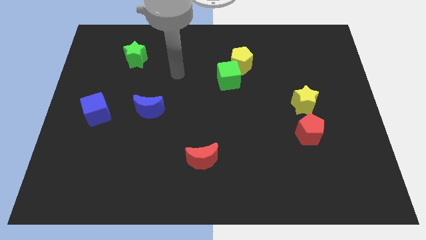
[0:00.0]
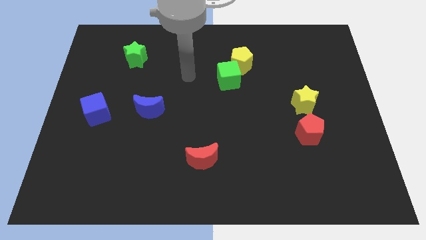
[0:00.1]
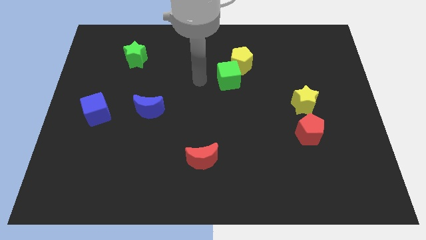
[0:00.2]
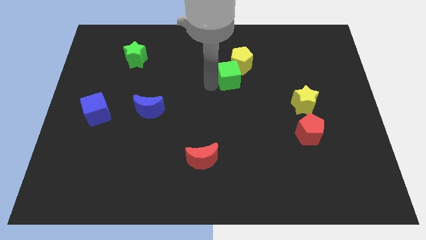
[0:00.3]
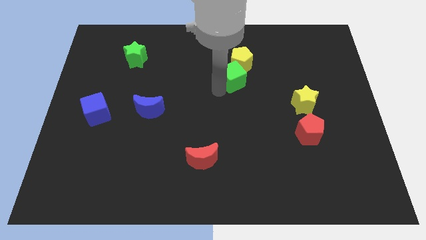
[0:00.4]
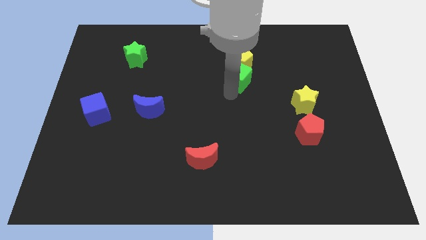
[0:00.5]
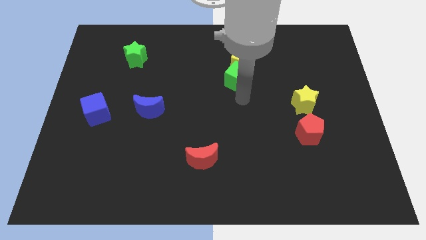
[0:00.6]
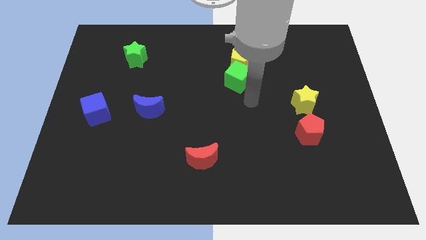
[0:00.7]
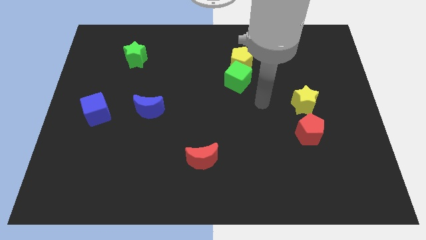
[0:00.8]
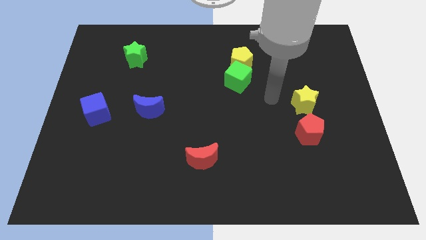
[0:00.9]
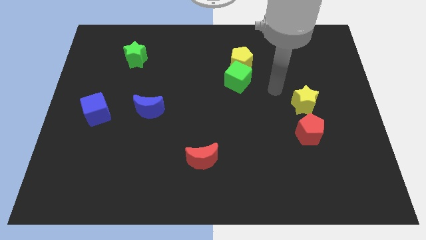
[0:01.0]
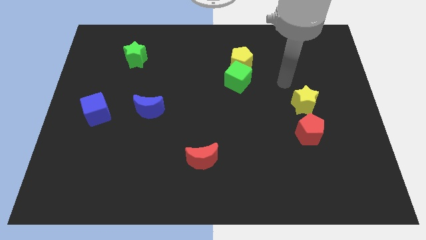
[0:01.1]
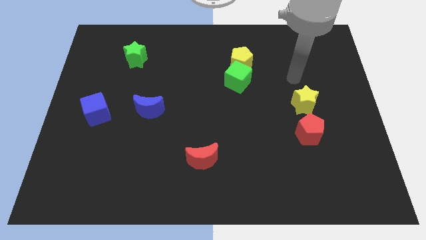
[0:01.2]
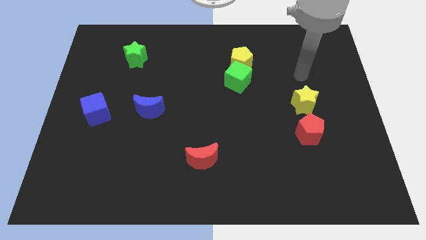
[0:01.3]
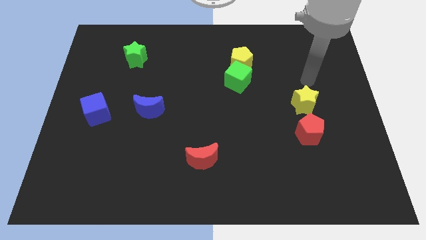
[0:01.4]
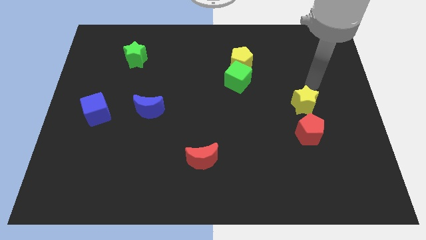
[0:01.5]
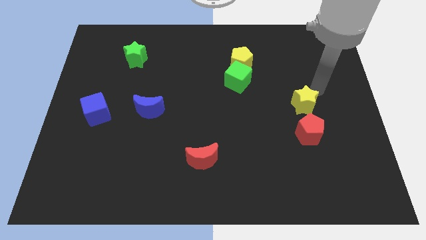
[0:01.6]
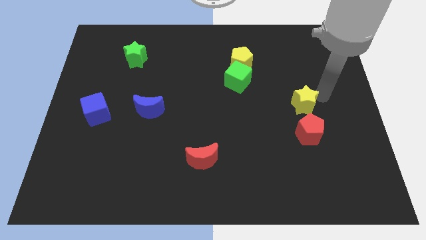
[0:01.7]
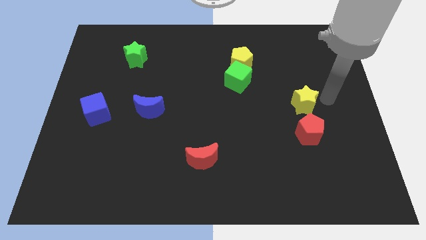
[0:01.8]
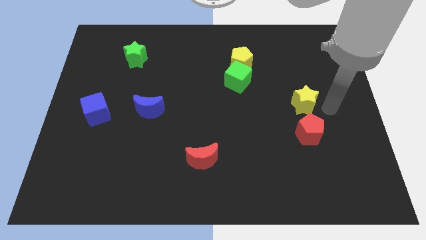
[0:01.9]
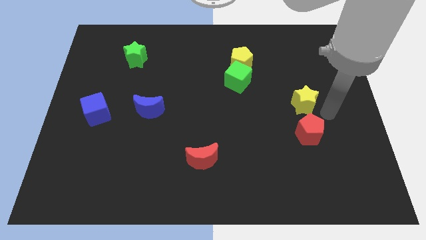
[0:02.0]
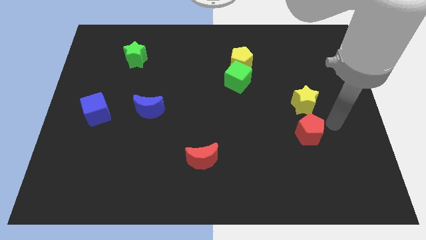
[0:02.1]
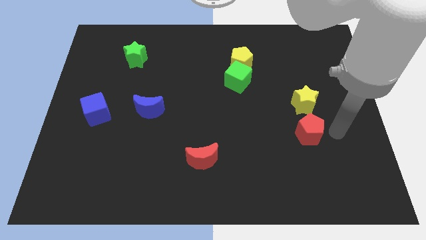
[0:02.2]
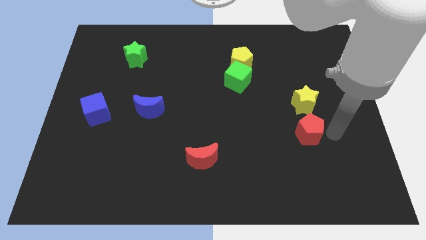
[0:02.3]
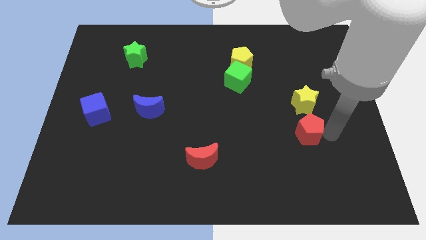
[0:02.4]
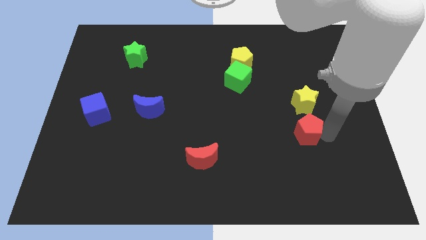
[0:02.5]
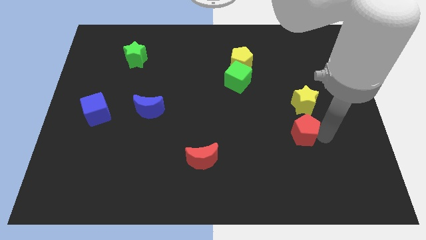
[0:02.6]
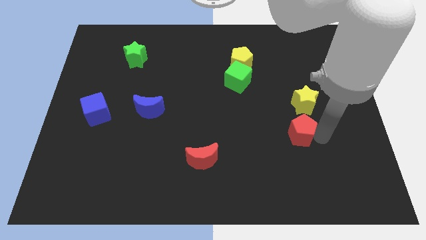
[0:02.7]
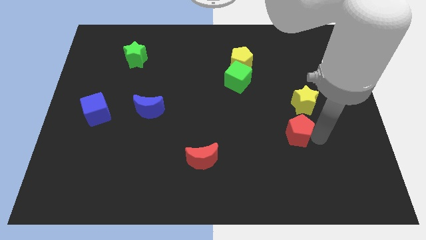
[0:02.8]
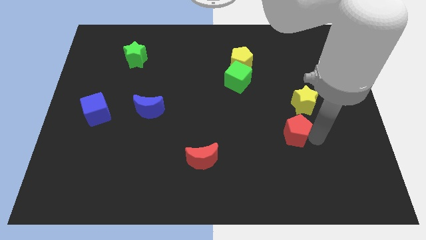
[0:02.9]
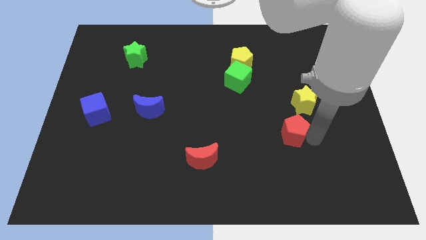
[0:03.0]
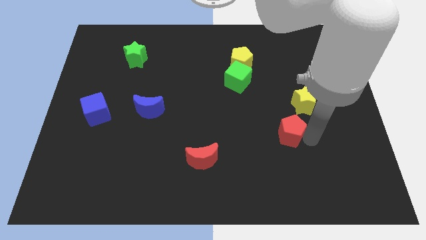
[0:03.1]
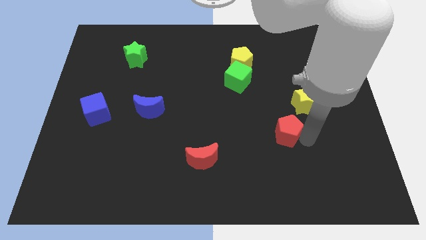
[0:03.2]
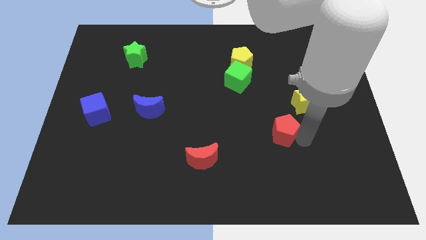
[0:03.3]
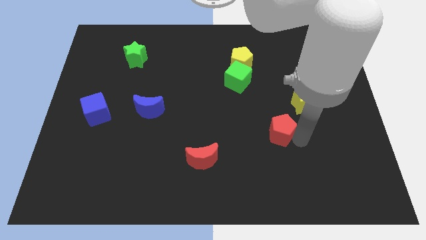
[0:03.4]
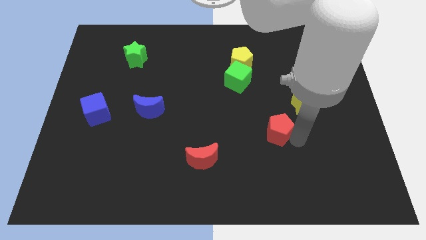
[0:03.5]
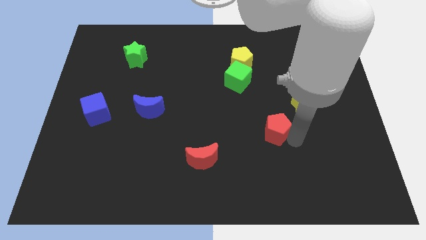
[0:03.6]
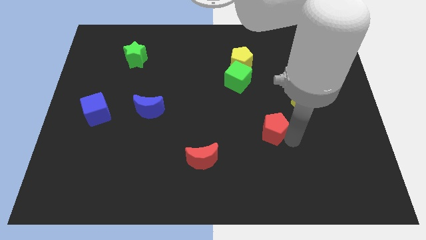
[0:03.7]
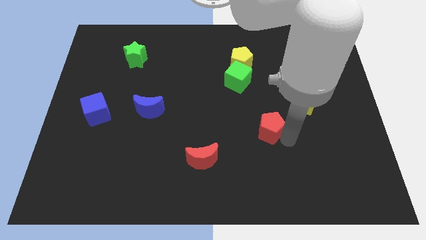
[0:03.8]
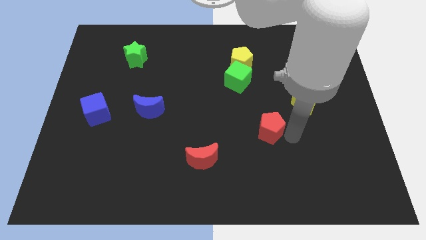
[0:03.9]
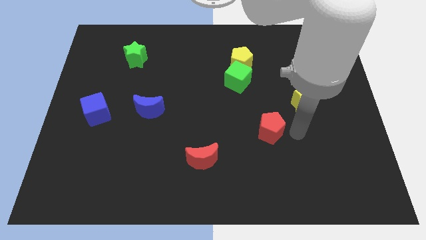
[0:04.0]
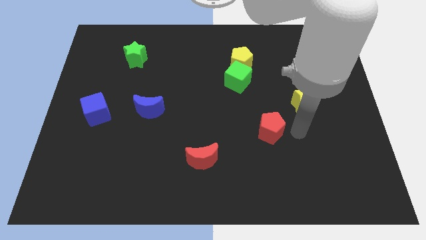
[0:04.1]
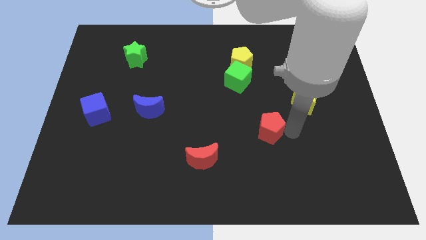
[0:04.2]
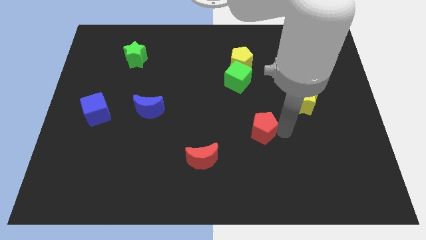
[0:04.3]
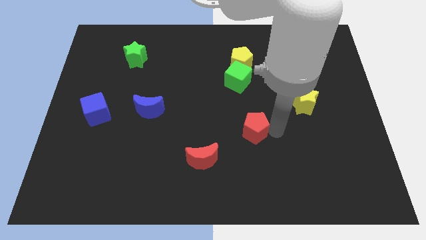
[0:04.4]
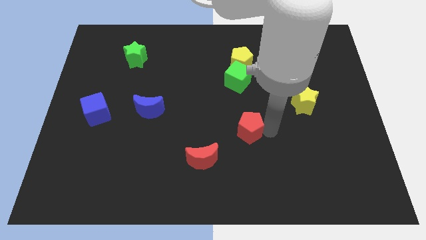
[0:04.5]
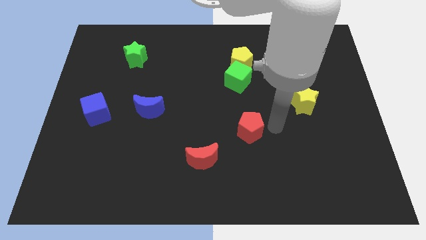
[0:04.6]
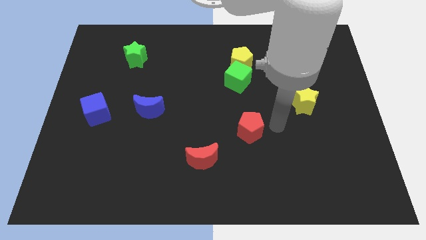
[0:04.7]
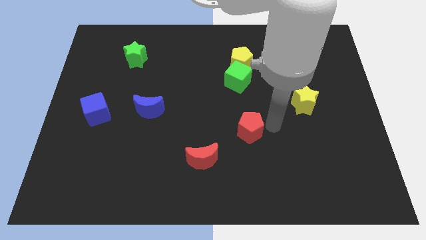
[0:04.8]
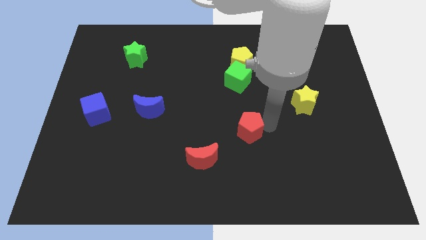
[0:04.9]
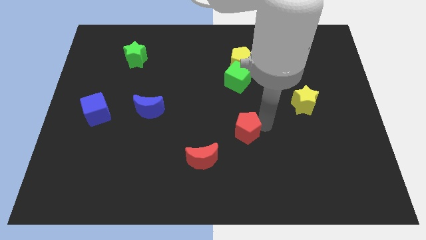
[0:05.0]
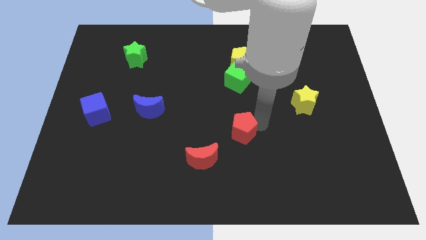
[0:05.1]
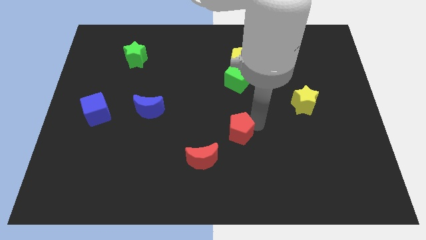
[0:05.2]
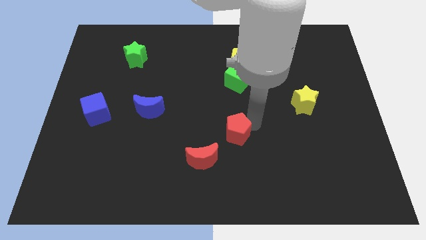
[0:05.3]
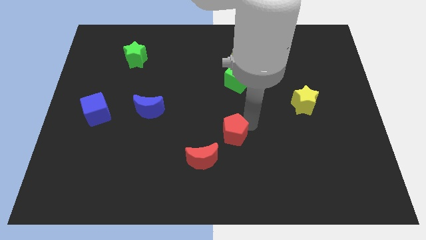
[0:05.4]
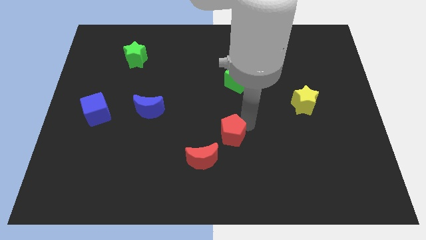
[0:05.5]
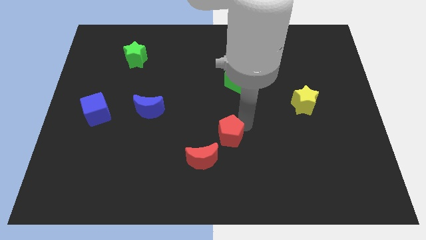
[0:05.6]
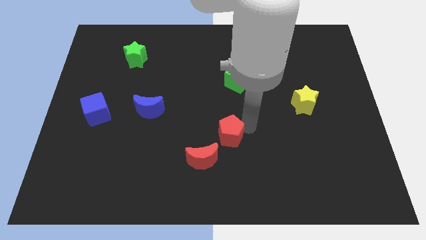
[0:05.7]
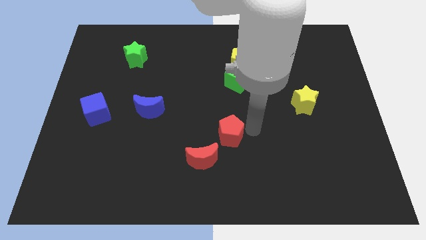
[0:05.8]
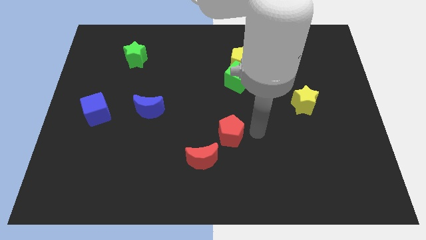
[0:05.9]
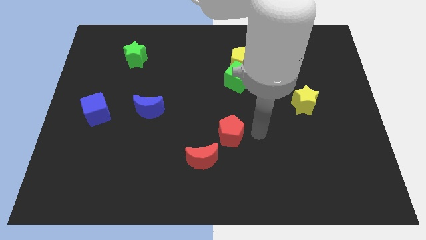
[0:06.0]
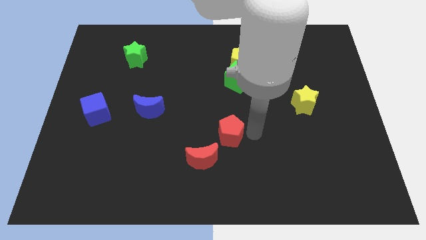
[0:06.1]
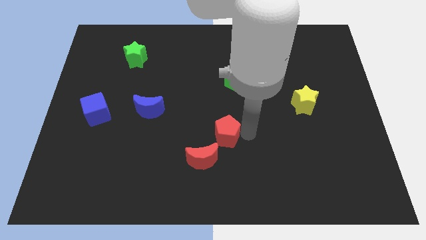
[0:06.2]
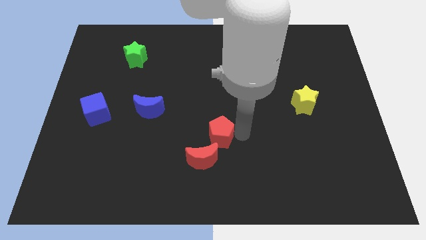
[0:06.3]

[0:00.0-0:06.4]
move the red pentagon to the left

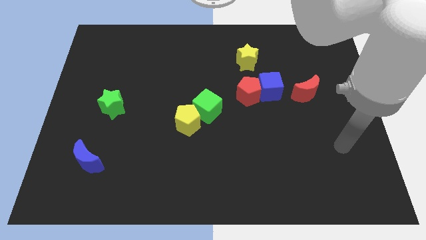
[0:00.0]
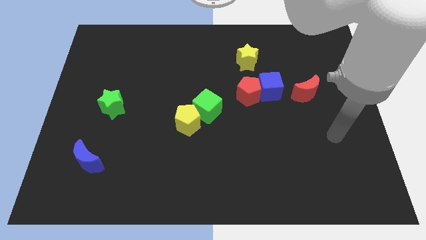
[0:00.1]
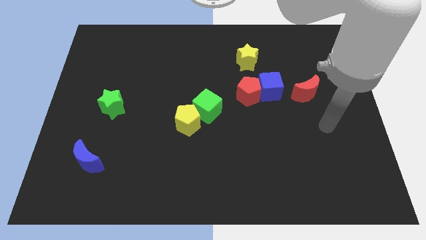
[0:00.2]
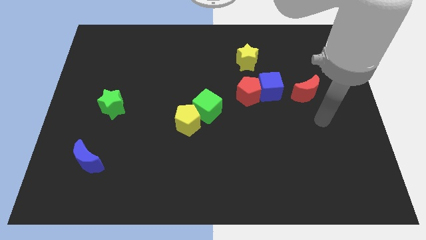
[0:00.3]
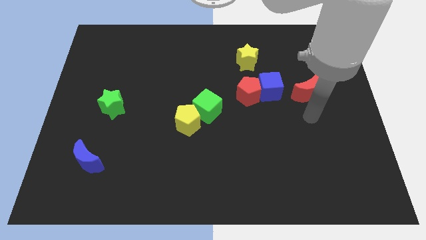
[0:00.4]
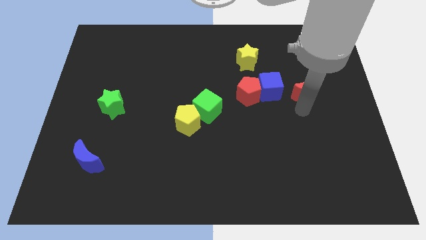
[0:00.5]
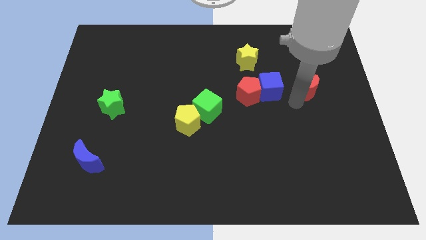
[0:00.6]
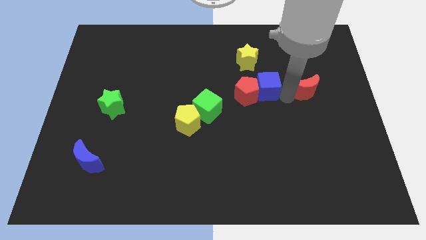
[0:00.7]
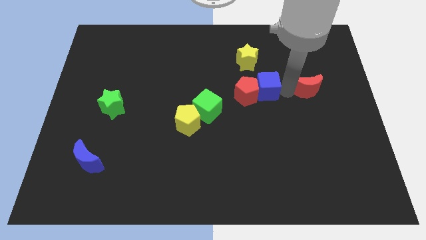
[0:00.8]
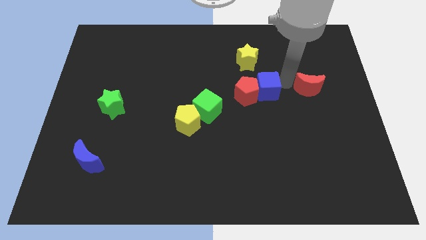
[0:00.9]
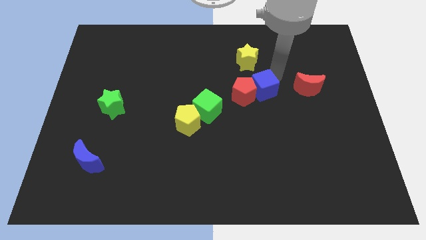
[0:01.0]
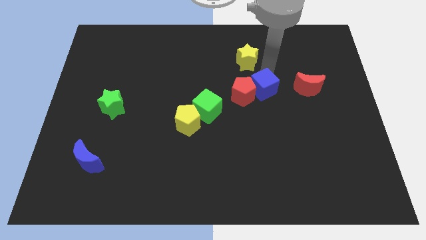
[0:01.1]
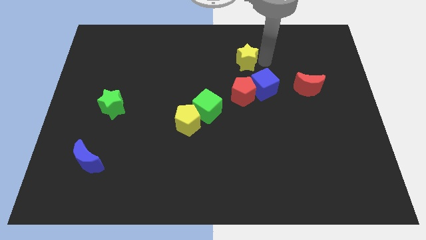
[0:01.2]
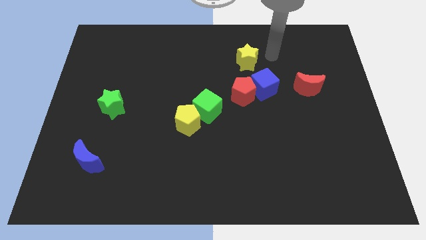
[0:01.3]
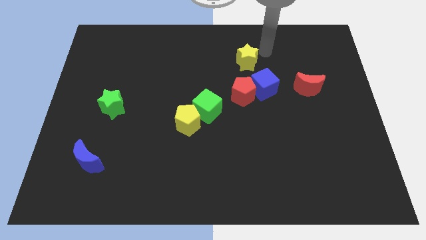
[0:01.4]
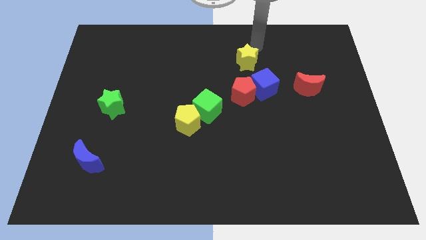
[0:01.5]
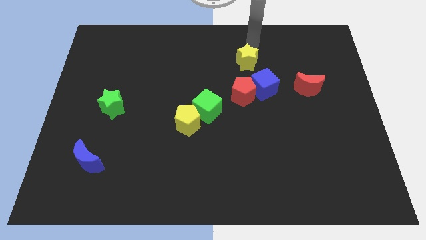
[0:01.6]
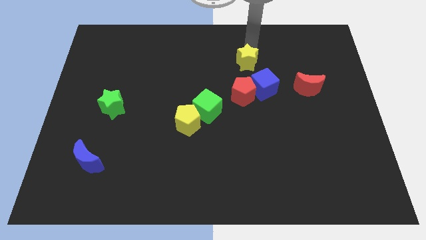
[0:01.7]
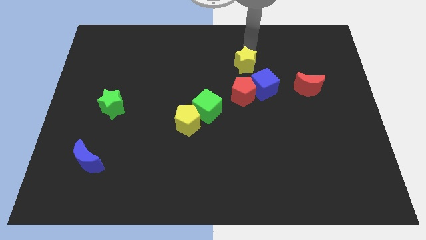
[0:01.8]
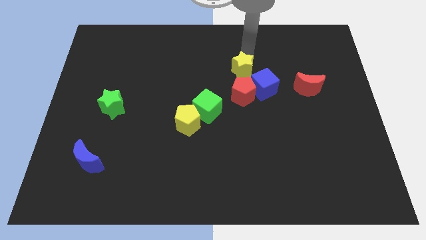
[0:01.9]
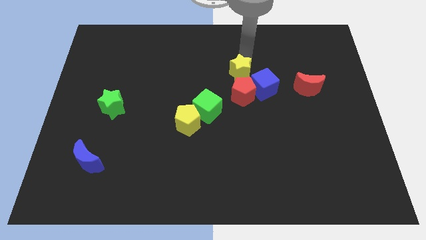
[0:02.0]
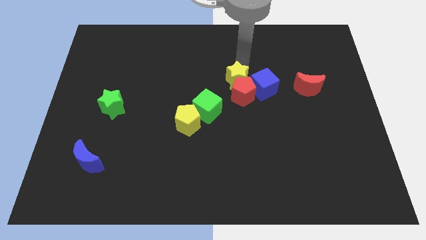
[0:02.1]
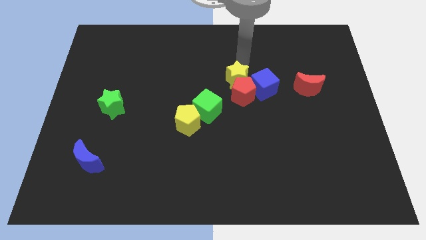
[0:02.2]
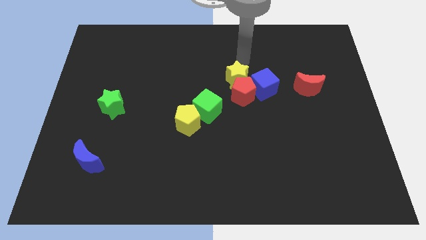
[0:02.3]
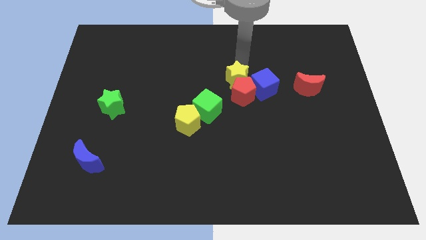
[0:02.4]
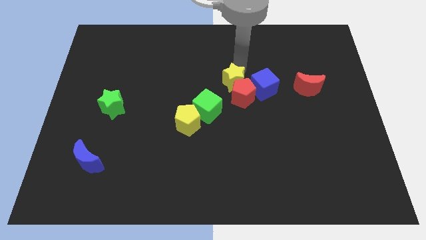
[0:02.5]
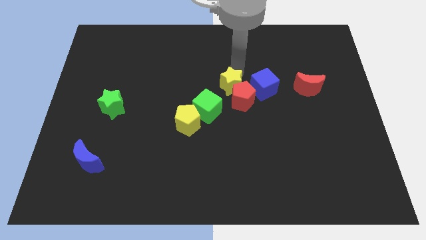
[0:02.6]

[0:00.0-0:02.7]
slide the yellow star downwards somewhat
